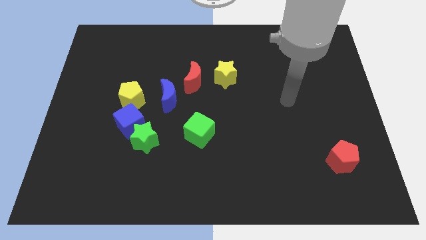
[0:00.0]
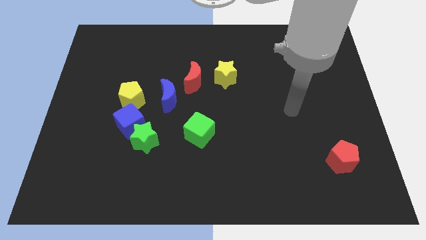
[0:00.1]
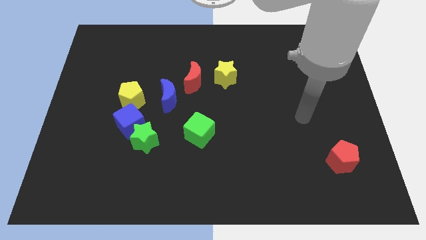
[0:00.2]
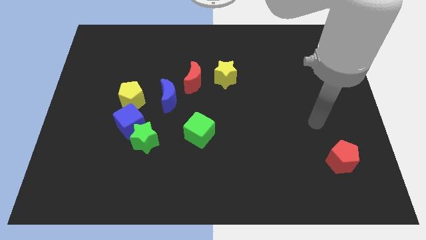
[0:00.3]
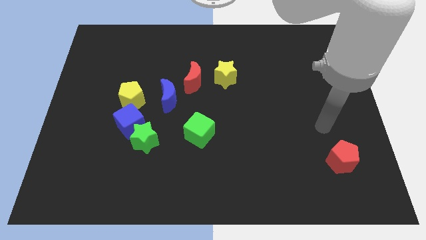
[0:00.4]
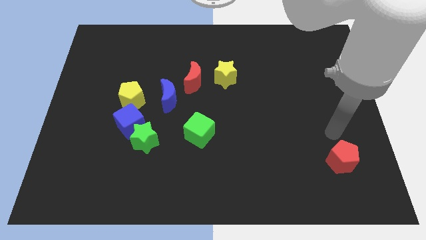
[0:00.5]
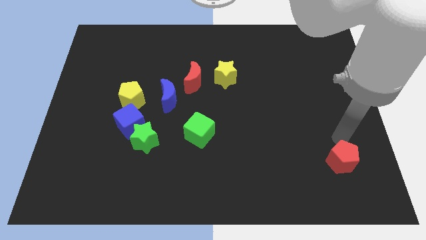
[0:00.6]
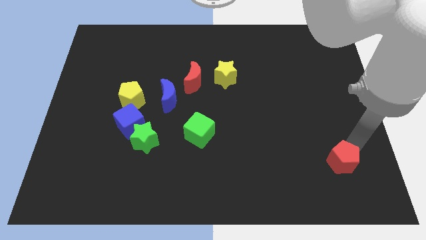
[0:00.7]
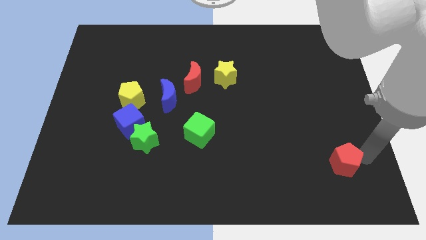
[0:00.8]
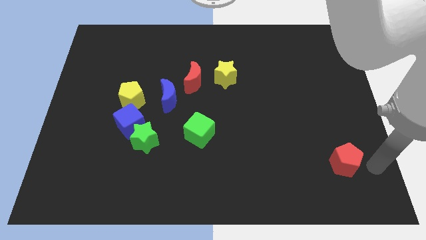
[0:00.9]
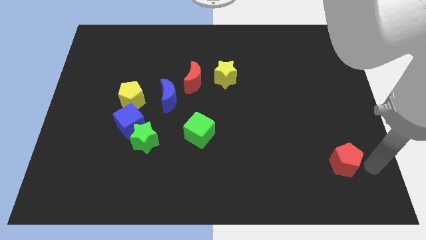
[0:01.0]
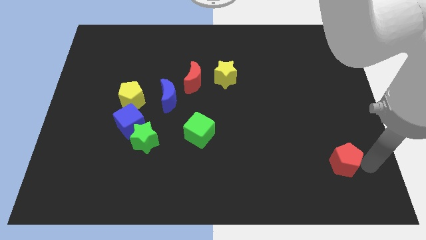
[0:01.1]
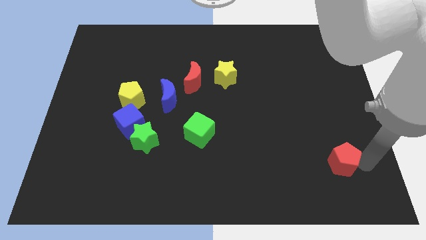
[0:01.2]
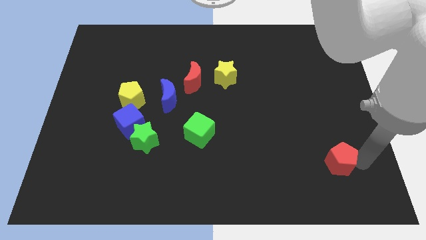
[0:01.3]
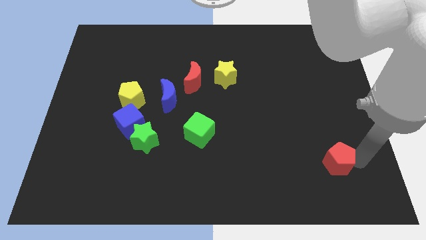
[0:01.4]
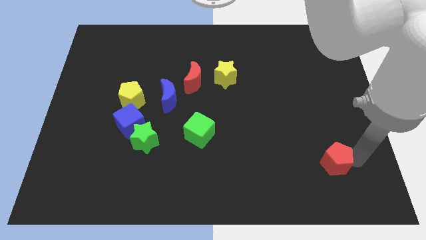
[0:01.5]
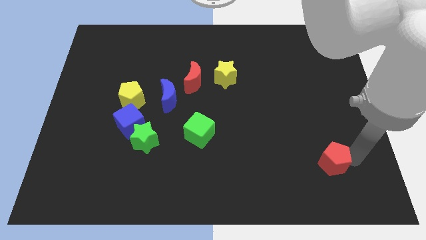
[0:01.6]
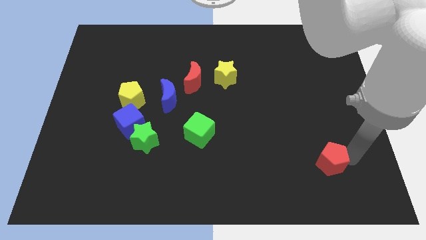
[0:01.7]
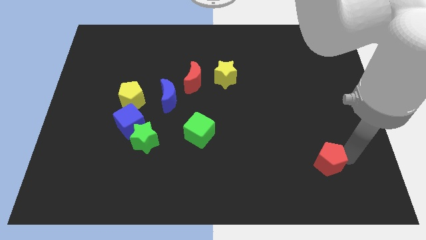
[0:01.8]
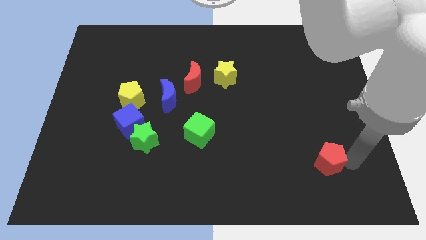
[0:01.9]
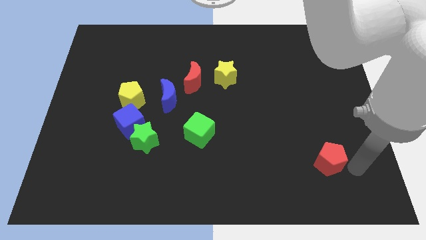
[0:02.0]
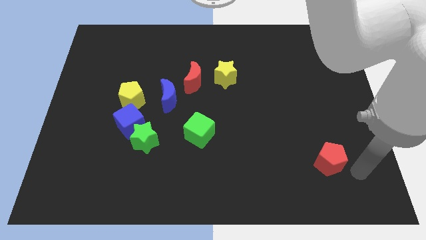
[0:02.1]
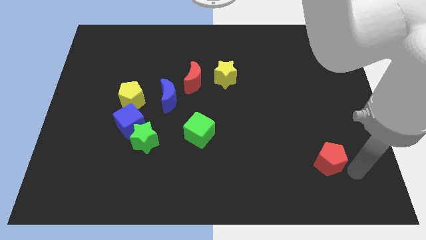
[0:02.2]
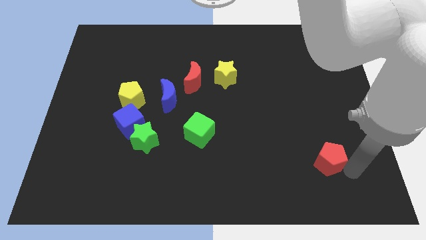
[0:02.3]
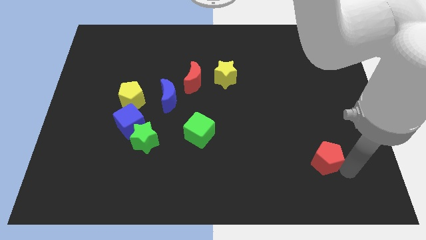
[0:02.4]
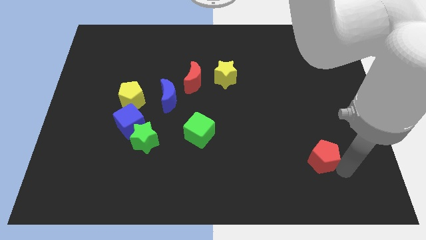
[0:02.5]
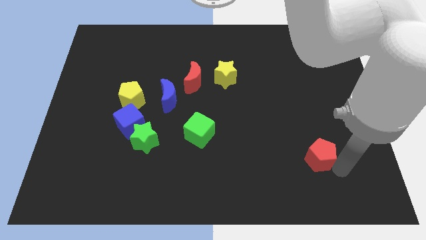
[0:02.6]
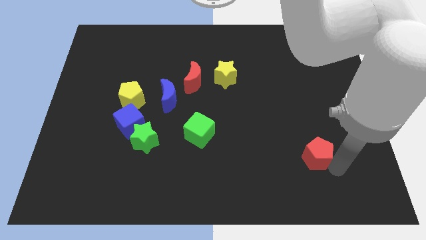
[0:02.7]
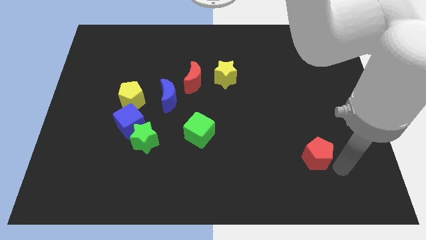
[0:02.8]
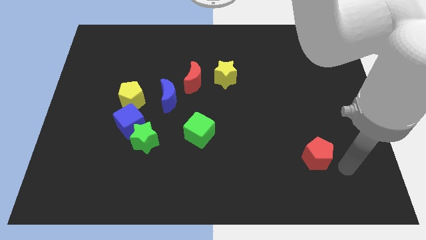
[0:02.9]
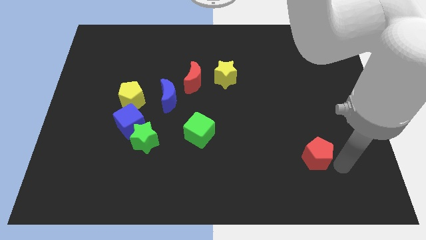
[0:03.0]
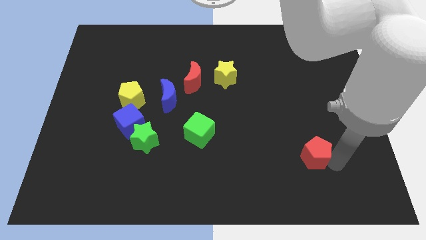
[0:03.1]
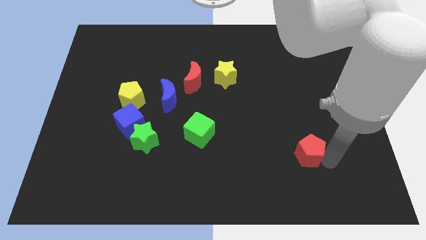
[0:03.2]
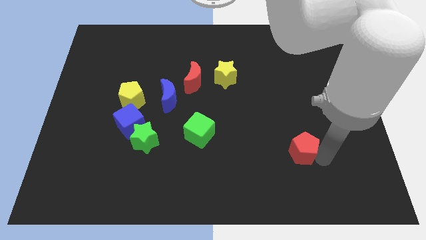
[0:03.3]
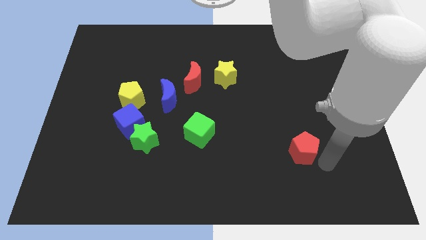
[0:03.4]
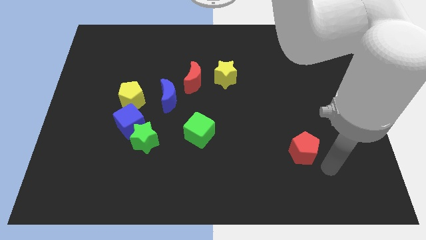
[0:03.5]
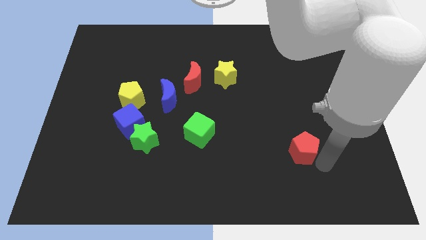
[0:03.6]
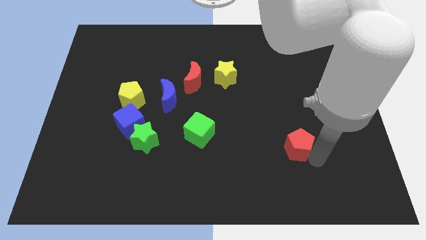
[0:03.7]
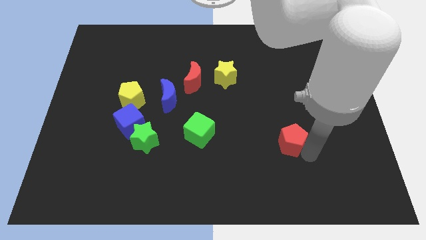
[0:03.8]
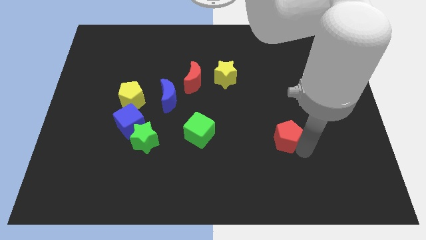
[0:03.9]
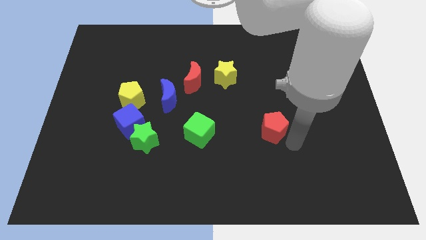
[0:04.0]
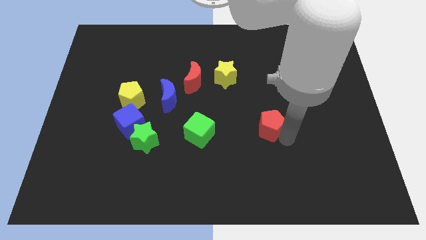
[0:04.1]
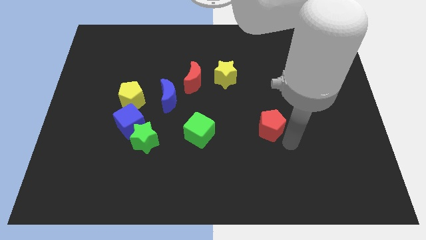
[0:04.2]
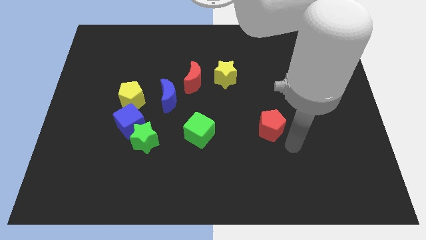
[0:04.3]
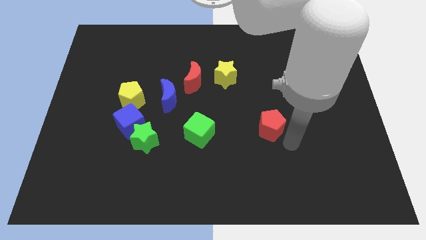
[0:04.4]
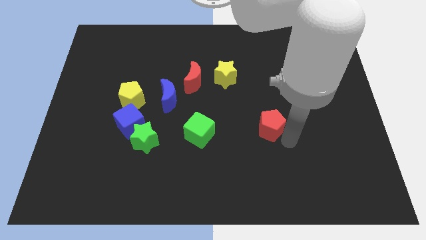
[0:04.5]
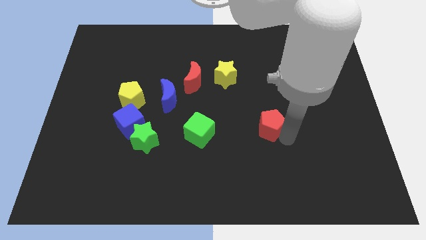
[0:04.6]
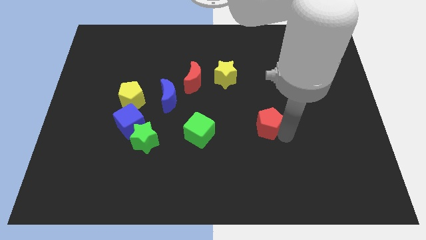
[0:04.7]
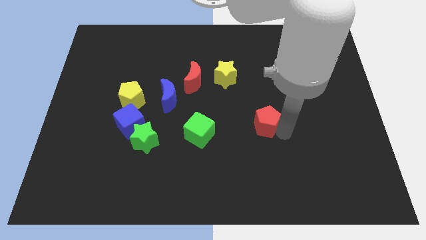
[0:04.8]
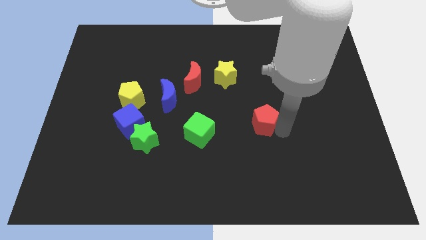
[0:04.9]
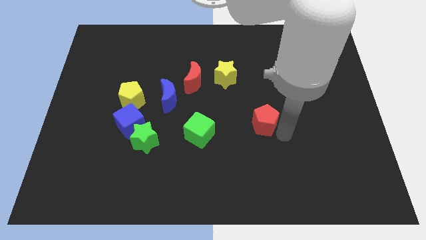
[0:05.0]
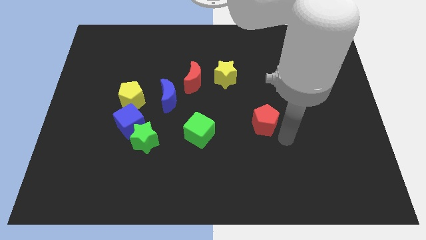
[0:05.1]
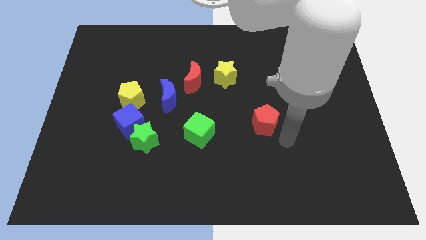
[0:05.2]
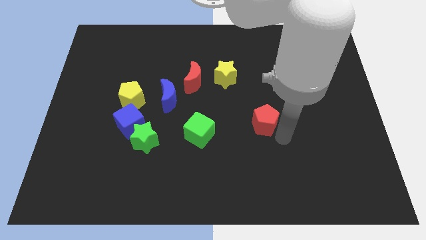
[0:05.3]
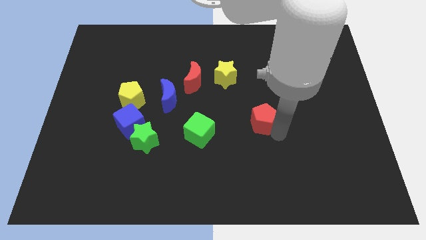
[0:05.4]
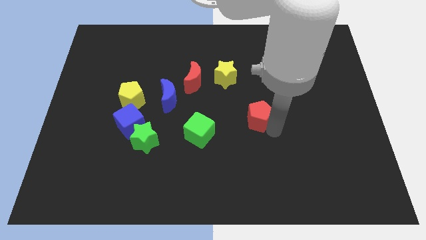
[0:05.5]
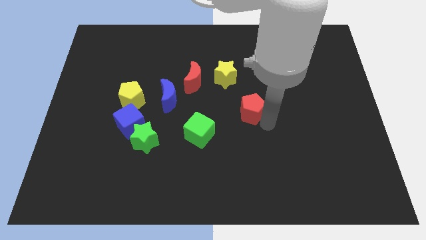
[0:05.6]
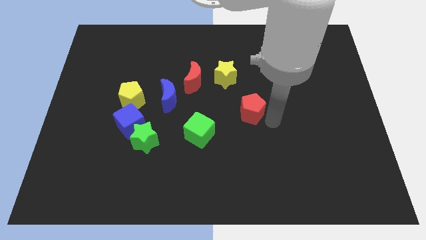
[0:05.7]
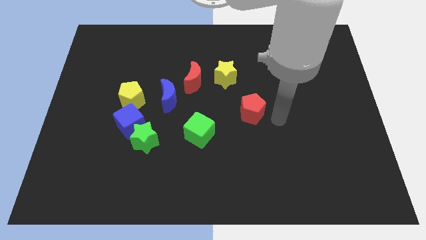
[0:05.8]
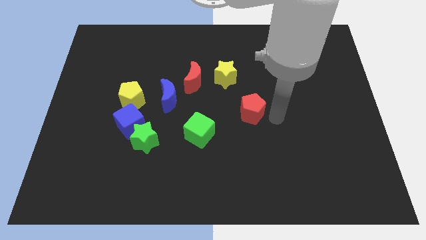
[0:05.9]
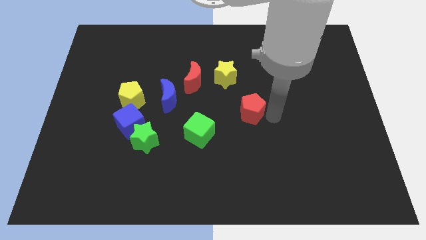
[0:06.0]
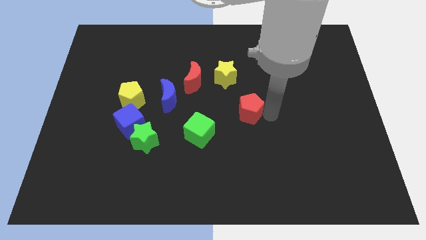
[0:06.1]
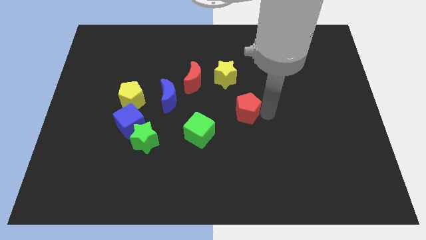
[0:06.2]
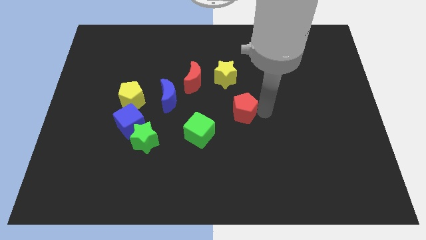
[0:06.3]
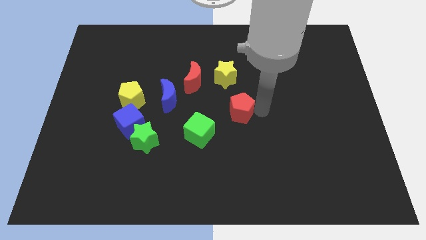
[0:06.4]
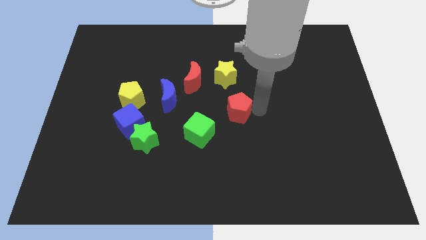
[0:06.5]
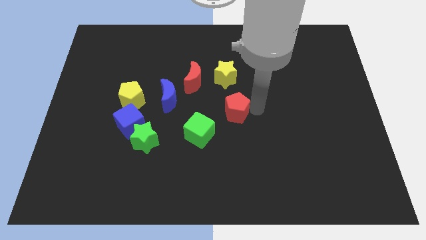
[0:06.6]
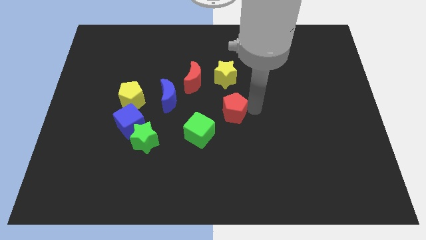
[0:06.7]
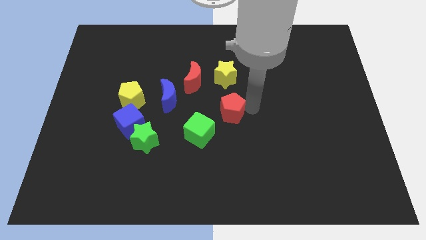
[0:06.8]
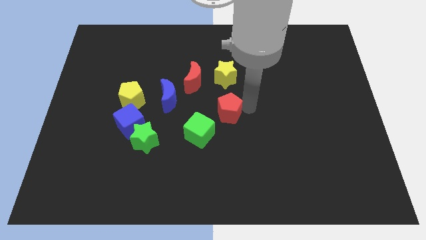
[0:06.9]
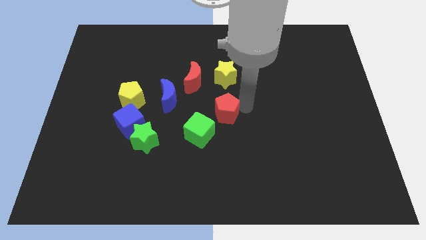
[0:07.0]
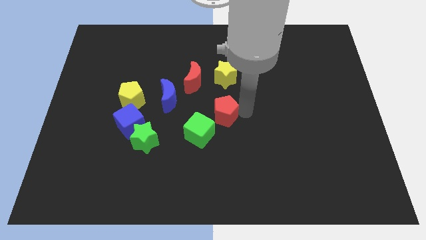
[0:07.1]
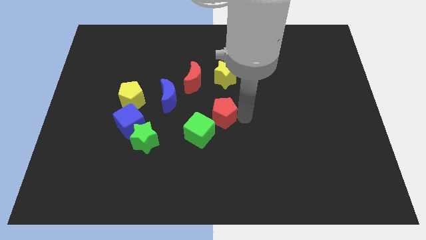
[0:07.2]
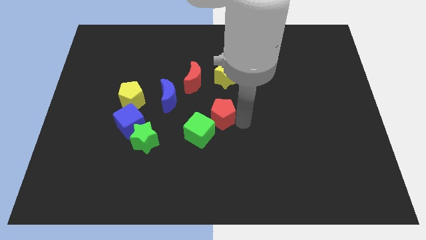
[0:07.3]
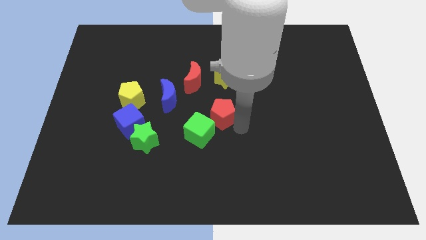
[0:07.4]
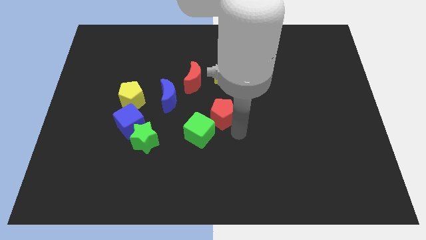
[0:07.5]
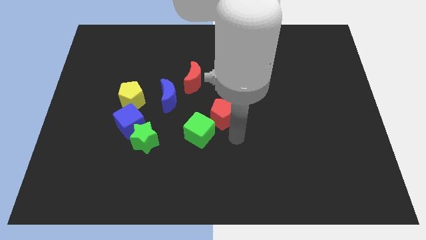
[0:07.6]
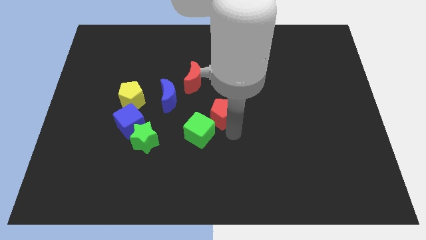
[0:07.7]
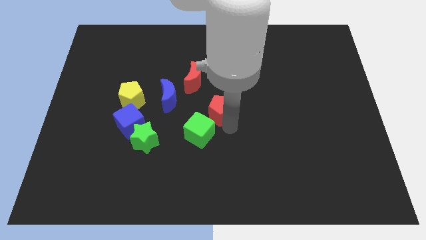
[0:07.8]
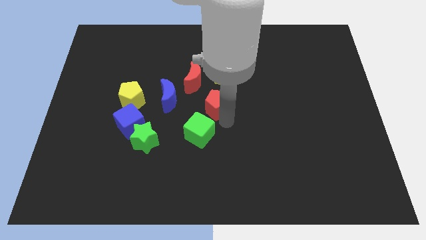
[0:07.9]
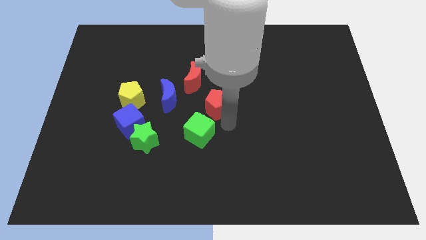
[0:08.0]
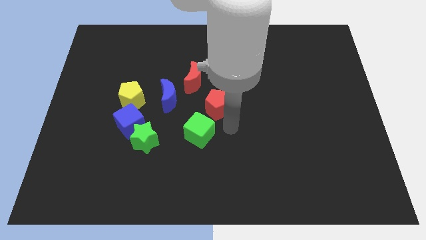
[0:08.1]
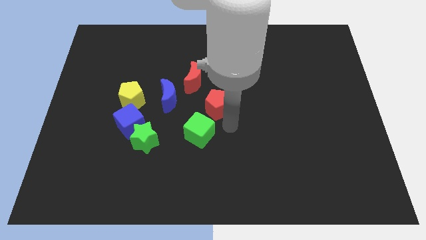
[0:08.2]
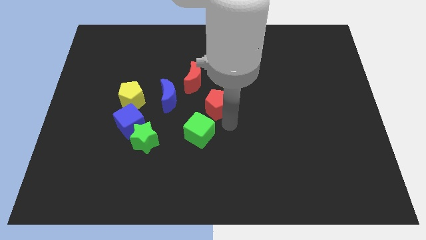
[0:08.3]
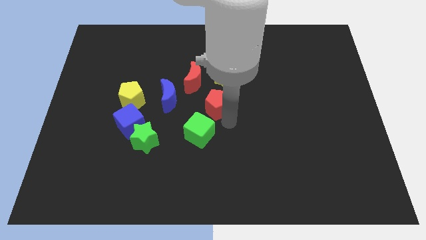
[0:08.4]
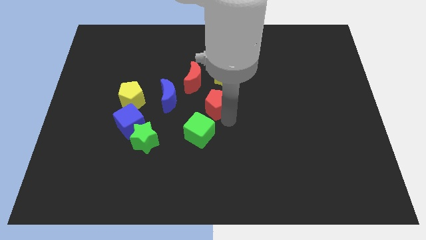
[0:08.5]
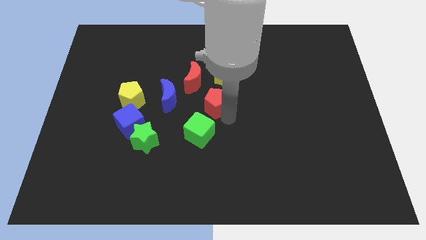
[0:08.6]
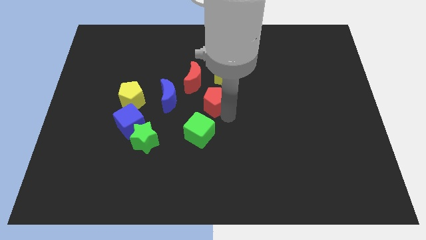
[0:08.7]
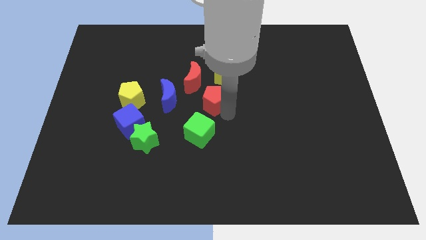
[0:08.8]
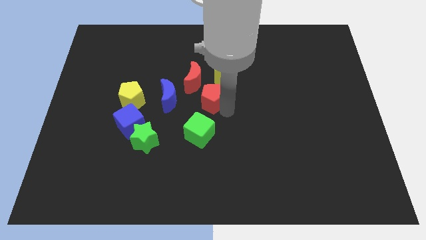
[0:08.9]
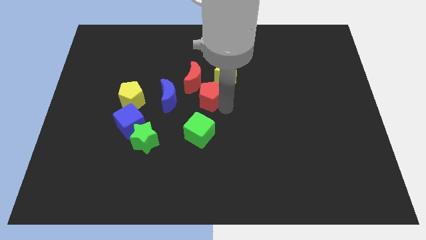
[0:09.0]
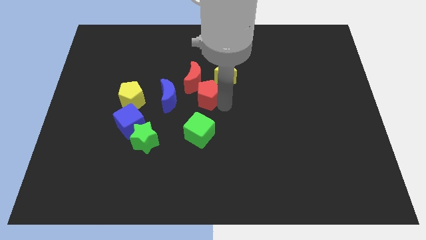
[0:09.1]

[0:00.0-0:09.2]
move the red pentagon towards the red moon
